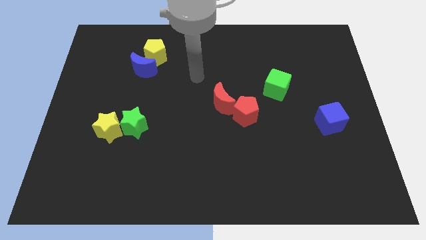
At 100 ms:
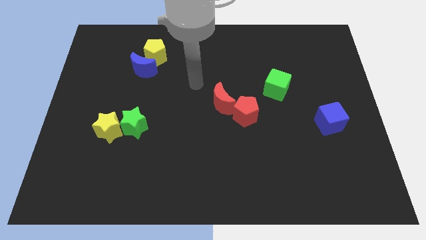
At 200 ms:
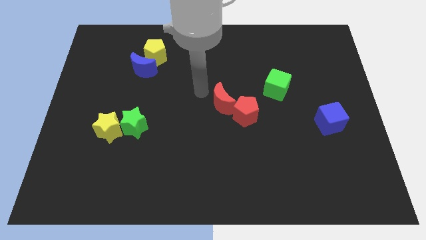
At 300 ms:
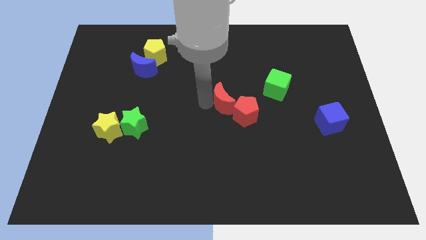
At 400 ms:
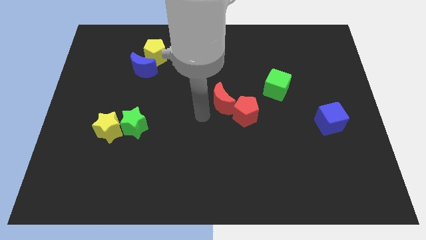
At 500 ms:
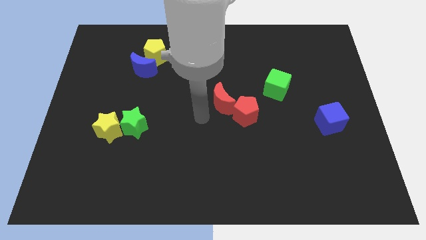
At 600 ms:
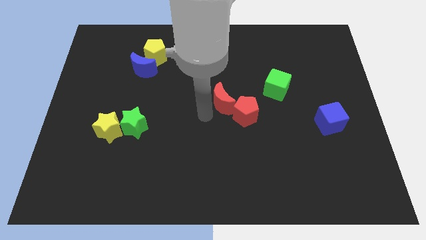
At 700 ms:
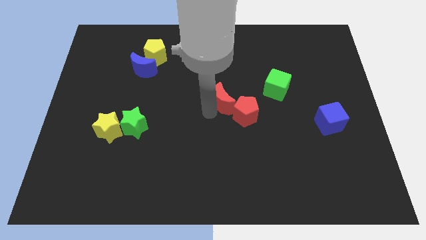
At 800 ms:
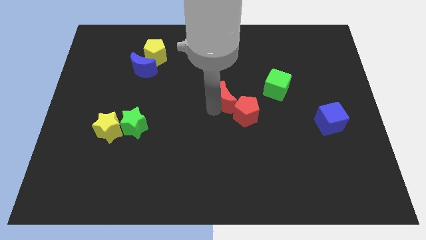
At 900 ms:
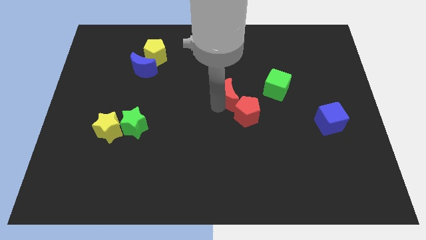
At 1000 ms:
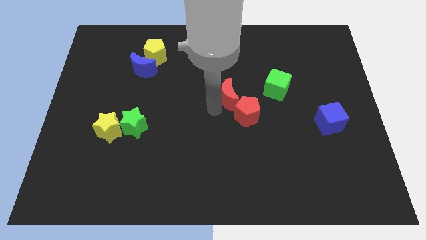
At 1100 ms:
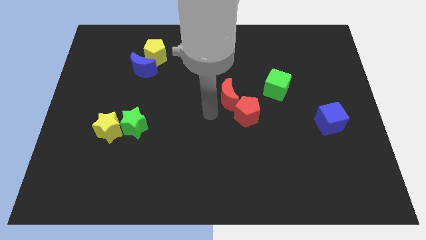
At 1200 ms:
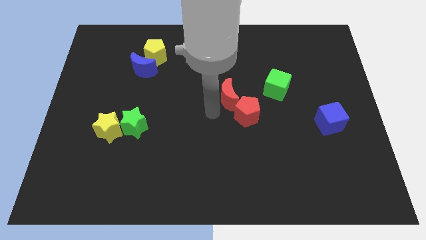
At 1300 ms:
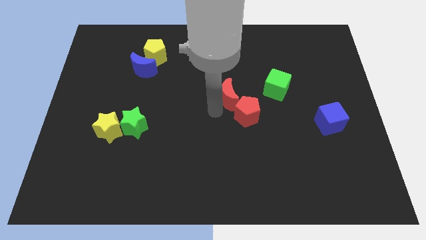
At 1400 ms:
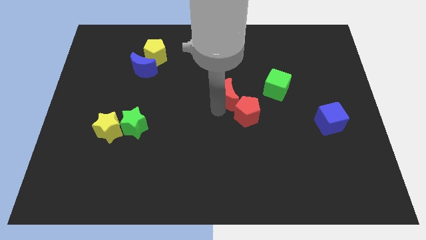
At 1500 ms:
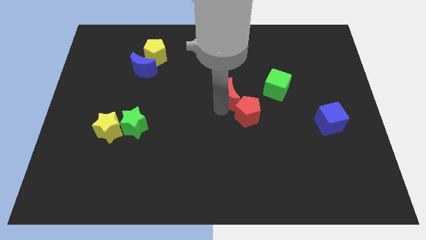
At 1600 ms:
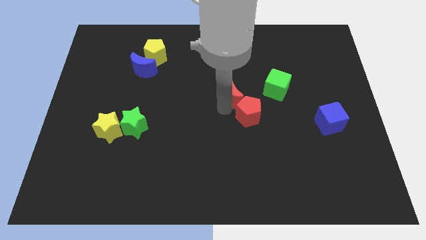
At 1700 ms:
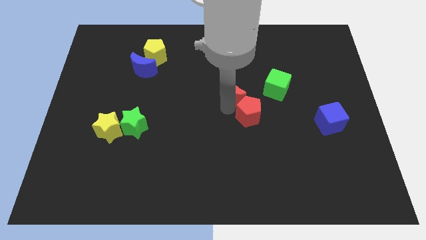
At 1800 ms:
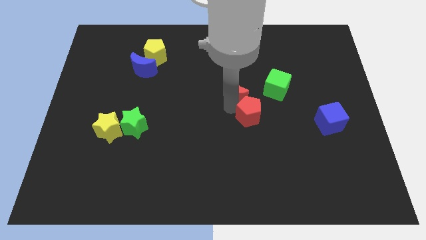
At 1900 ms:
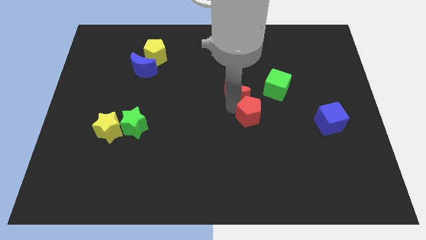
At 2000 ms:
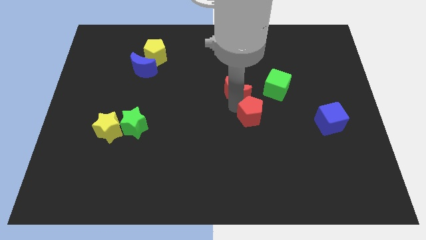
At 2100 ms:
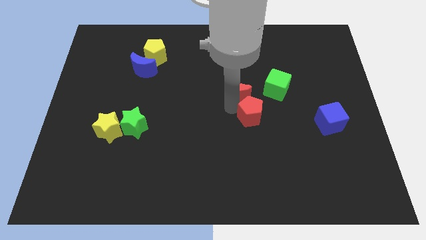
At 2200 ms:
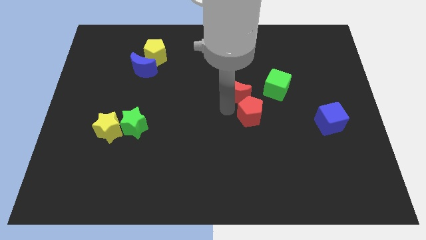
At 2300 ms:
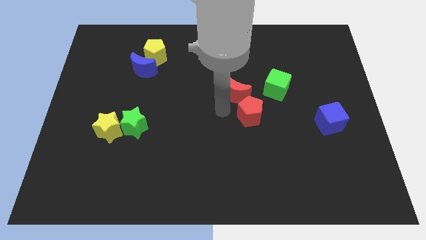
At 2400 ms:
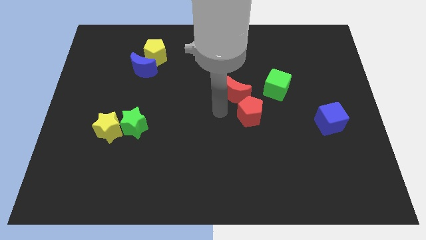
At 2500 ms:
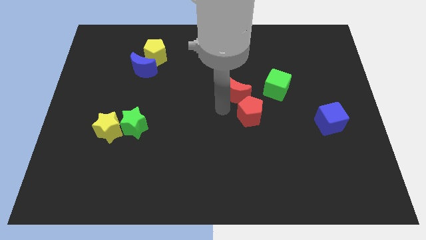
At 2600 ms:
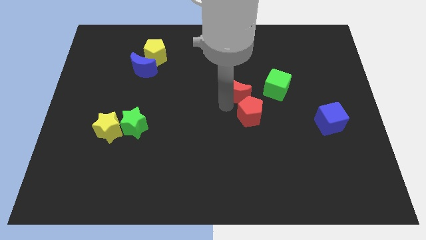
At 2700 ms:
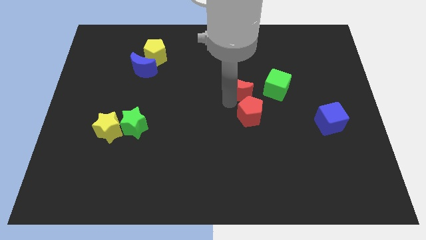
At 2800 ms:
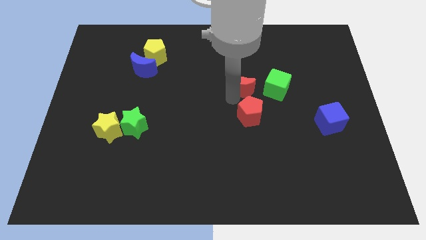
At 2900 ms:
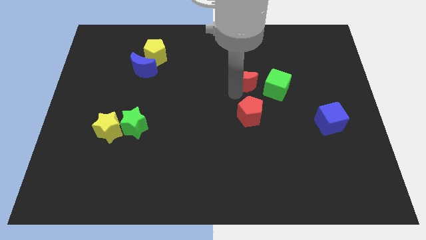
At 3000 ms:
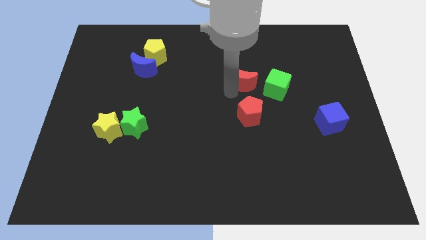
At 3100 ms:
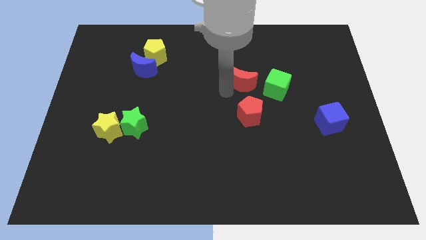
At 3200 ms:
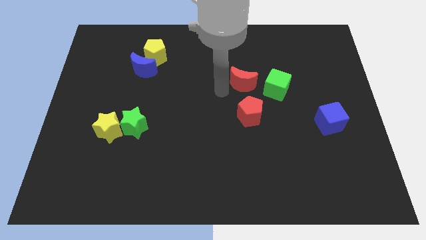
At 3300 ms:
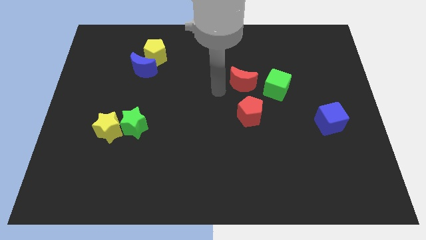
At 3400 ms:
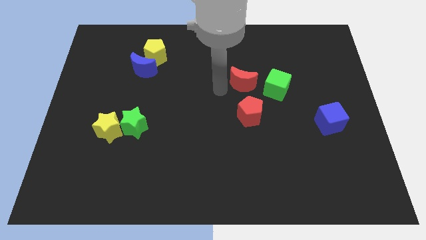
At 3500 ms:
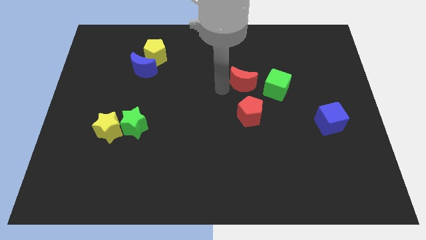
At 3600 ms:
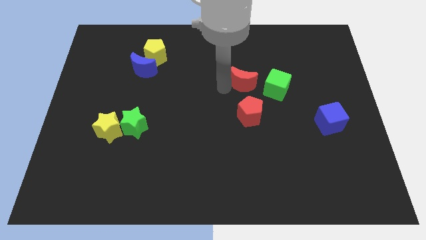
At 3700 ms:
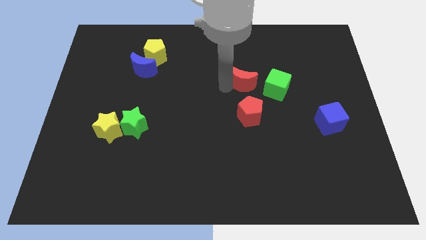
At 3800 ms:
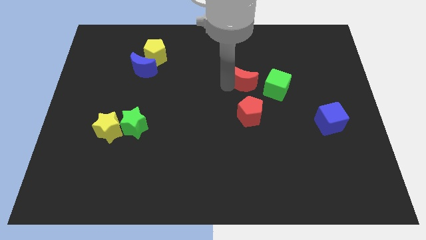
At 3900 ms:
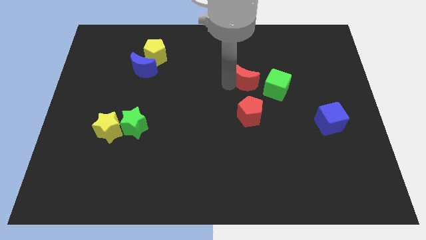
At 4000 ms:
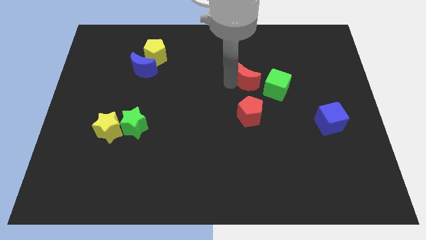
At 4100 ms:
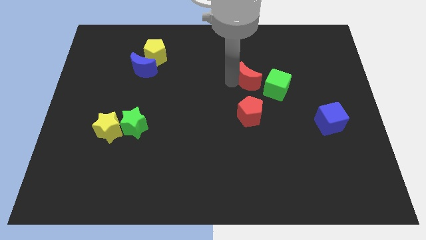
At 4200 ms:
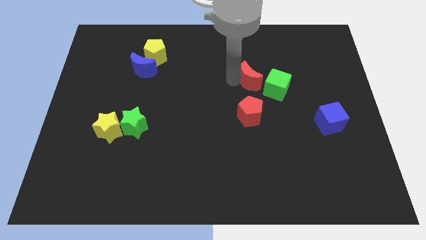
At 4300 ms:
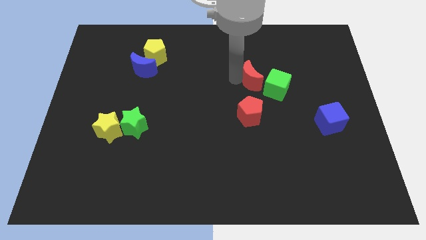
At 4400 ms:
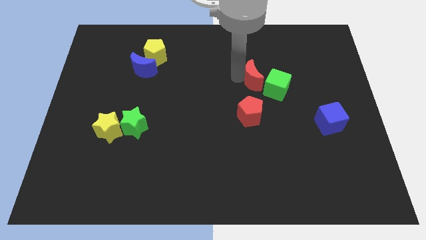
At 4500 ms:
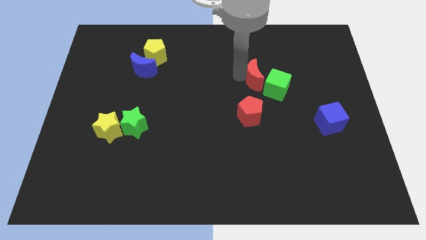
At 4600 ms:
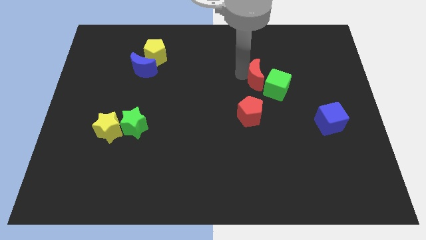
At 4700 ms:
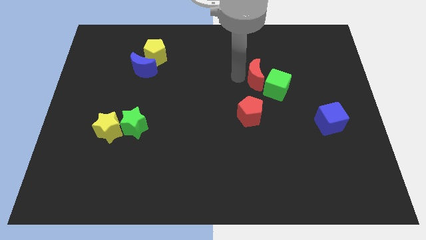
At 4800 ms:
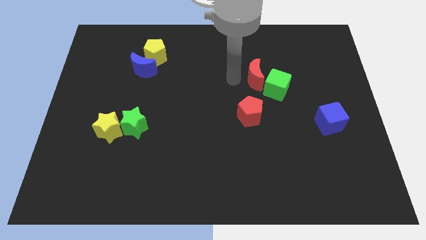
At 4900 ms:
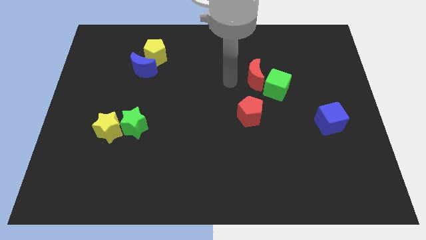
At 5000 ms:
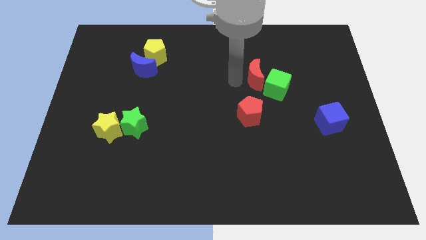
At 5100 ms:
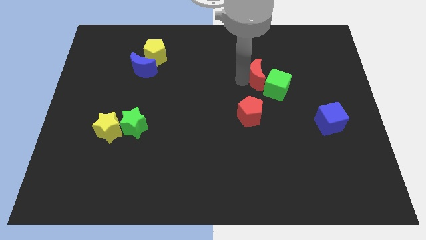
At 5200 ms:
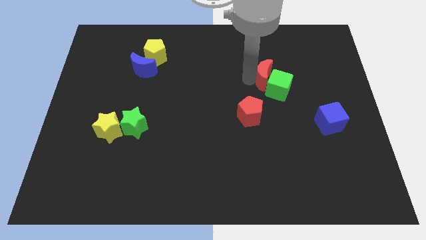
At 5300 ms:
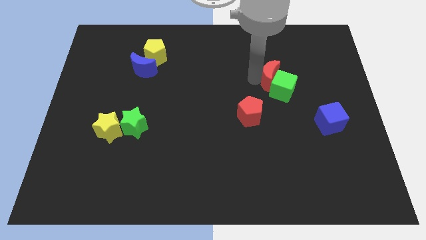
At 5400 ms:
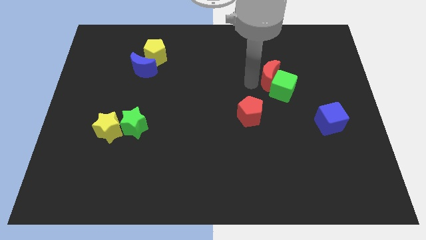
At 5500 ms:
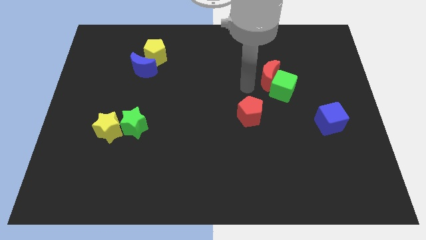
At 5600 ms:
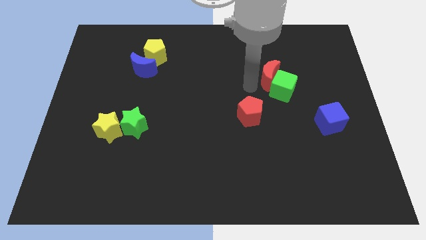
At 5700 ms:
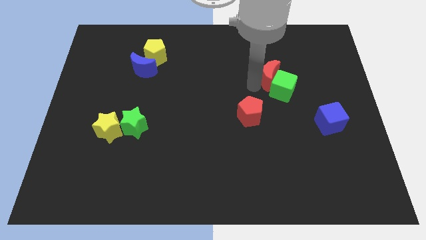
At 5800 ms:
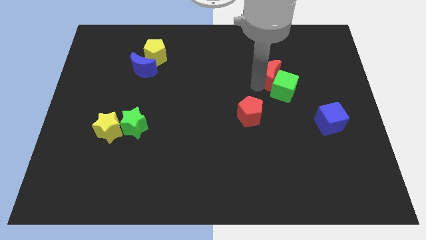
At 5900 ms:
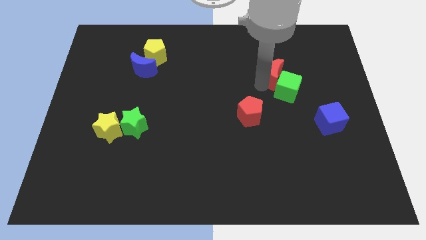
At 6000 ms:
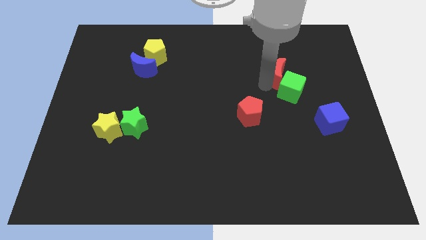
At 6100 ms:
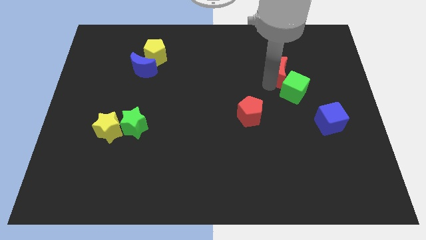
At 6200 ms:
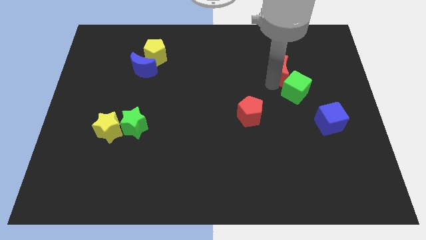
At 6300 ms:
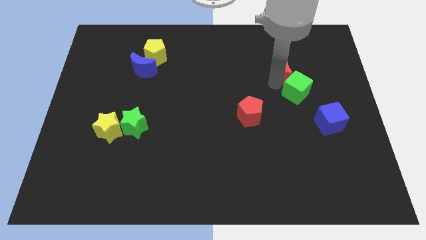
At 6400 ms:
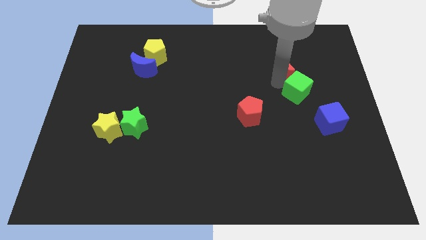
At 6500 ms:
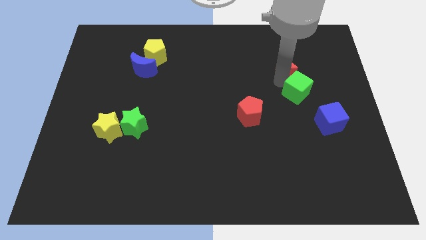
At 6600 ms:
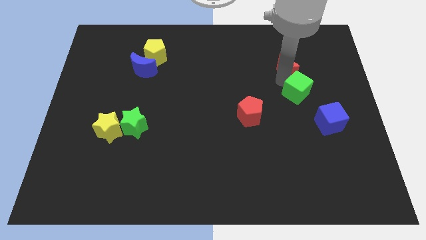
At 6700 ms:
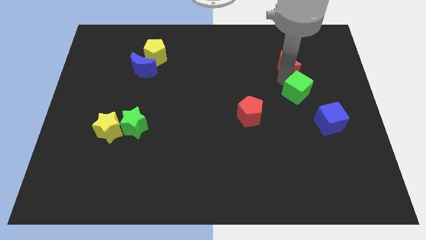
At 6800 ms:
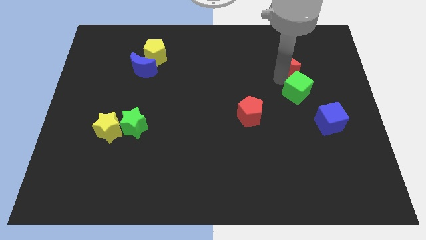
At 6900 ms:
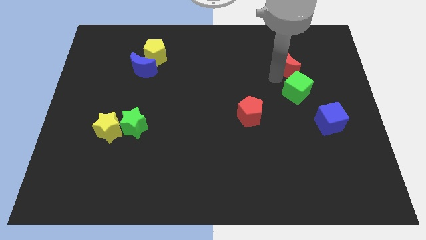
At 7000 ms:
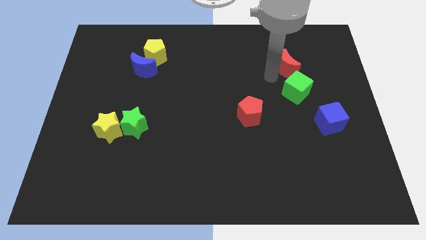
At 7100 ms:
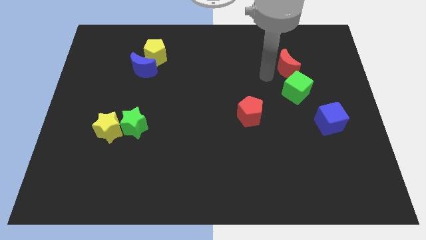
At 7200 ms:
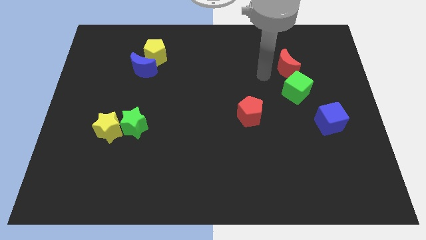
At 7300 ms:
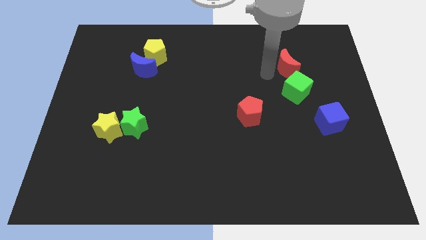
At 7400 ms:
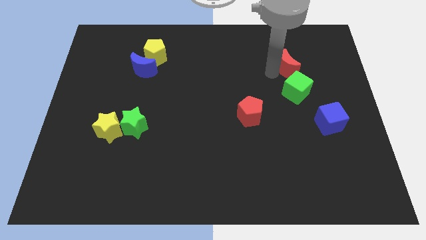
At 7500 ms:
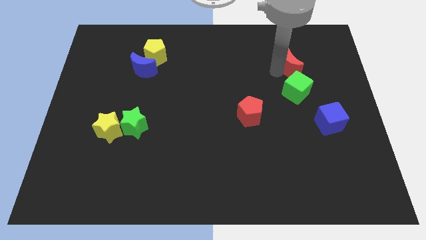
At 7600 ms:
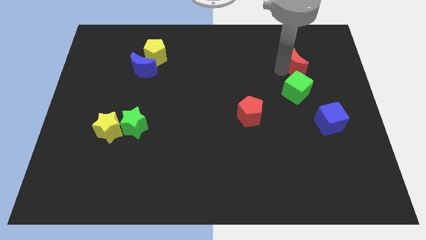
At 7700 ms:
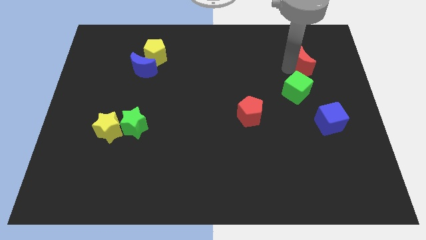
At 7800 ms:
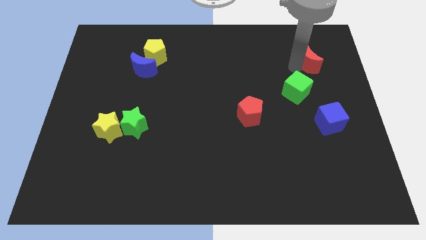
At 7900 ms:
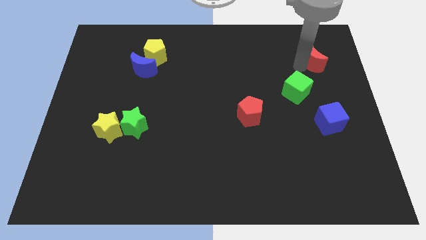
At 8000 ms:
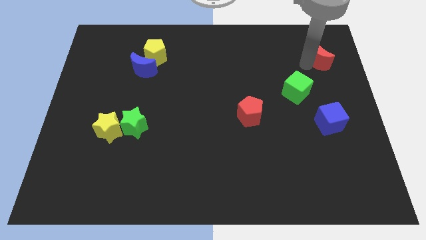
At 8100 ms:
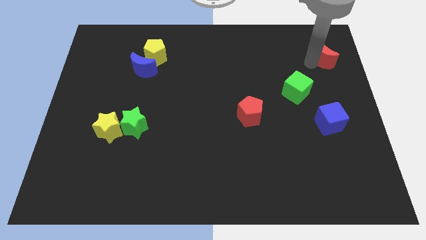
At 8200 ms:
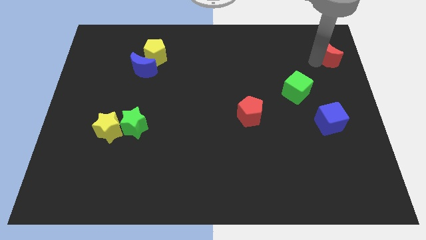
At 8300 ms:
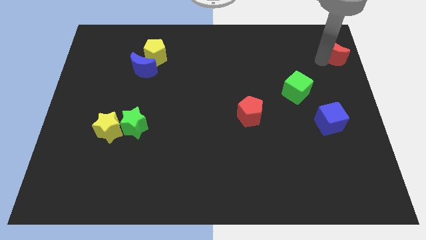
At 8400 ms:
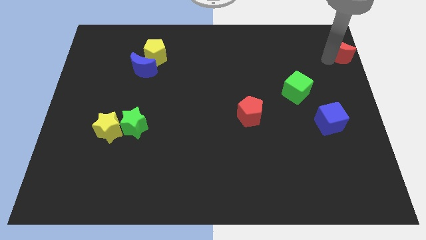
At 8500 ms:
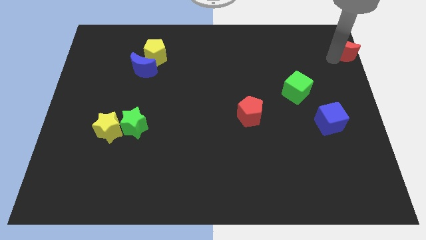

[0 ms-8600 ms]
put the red moon to the top right corner
